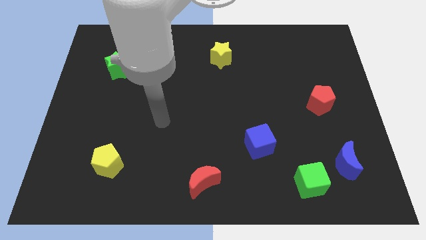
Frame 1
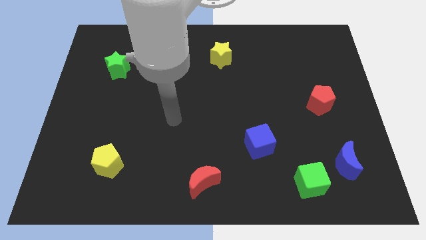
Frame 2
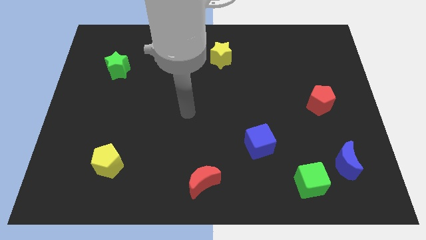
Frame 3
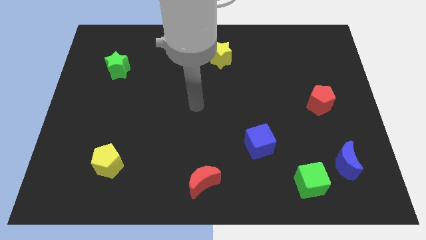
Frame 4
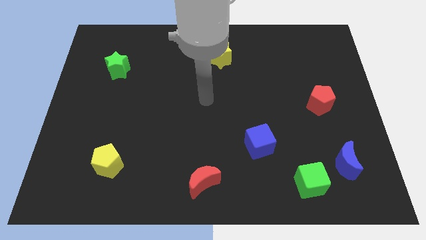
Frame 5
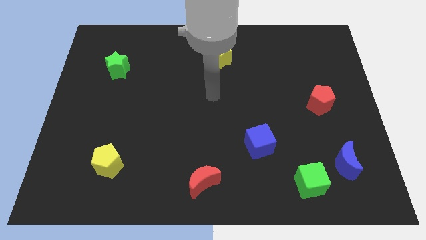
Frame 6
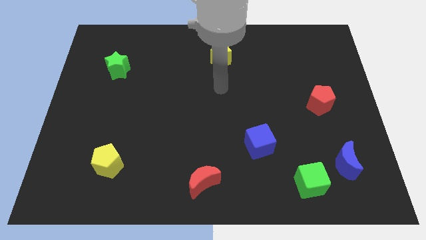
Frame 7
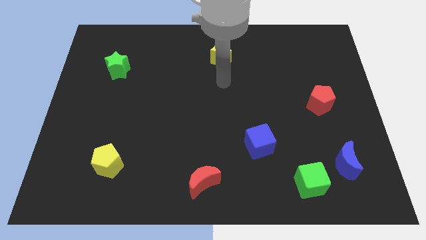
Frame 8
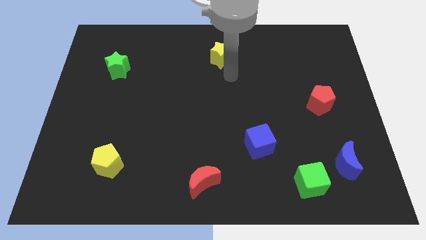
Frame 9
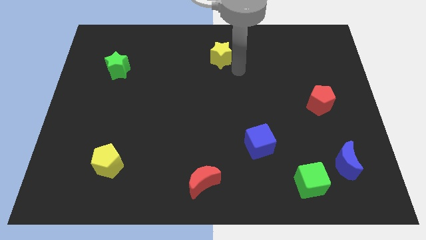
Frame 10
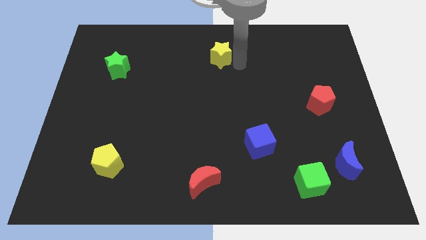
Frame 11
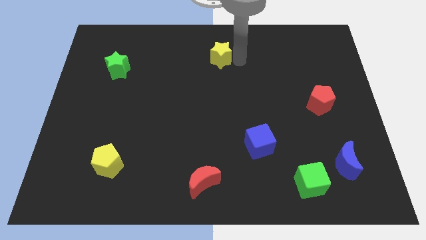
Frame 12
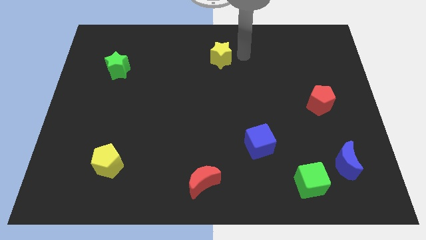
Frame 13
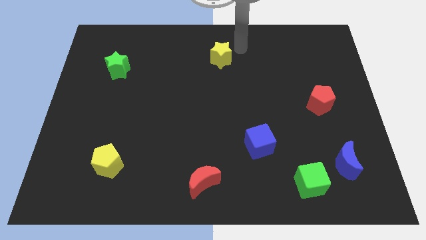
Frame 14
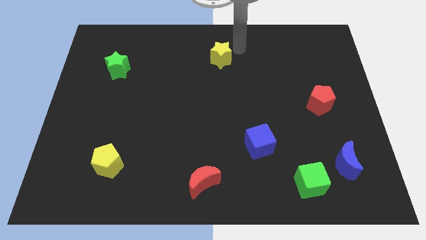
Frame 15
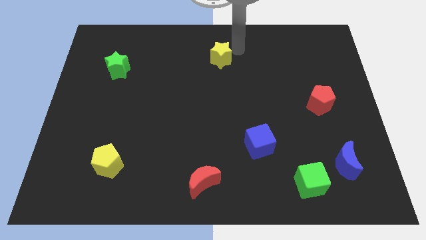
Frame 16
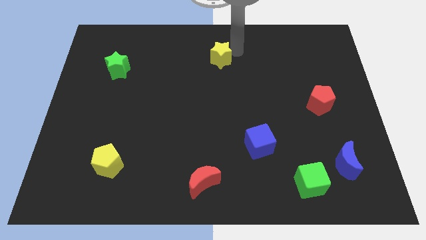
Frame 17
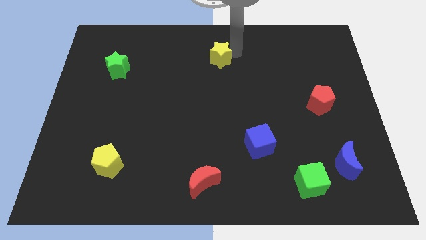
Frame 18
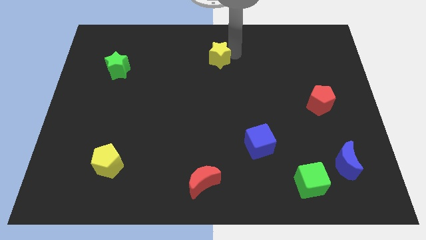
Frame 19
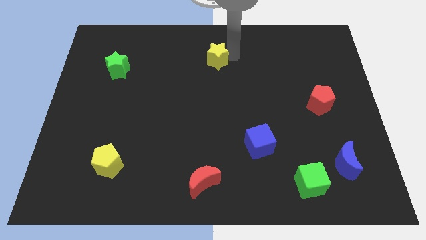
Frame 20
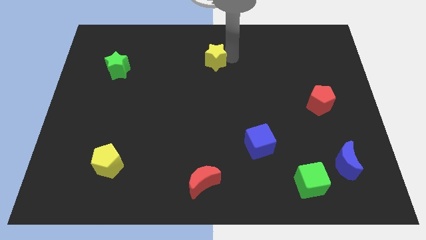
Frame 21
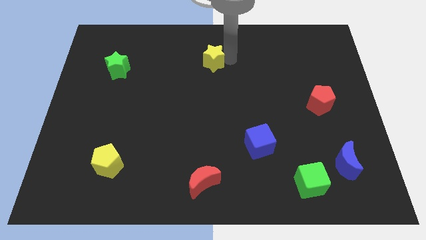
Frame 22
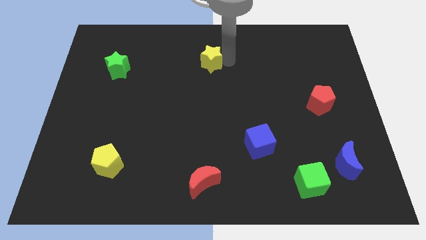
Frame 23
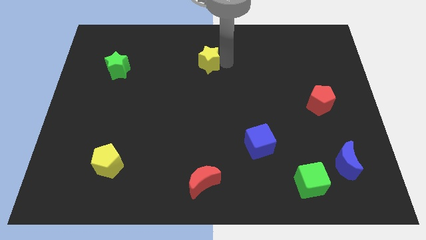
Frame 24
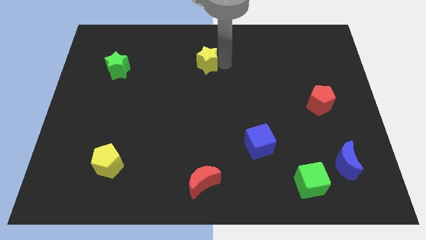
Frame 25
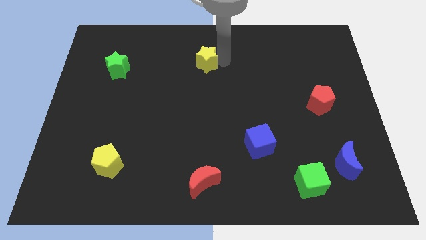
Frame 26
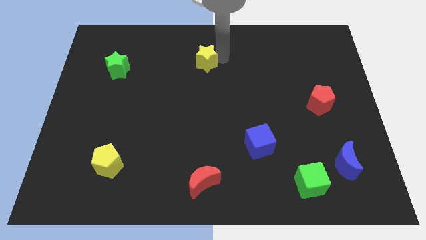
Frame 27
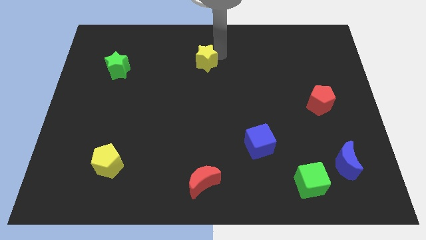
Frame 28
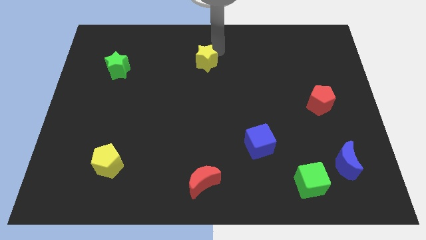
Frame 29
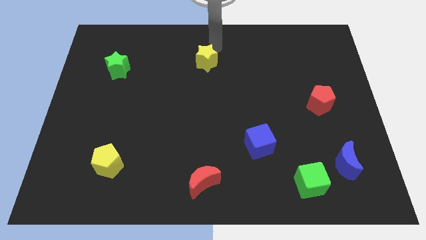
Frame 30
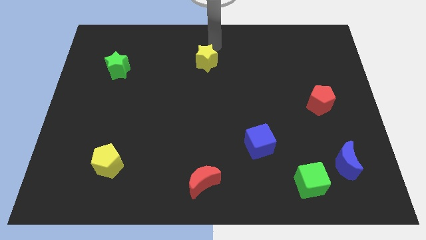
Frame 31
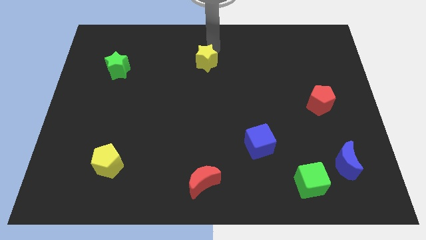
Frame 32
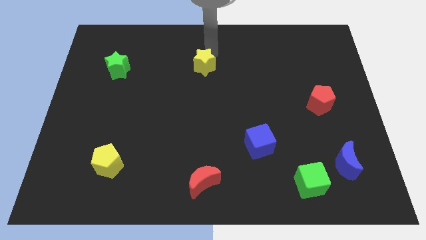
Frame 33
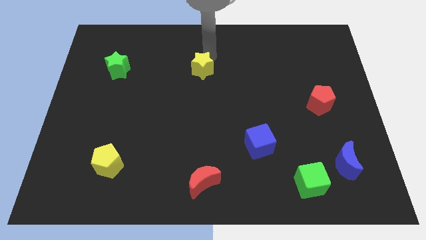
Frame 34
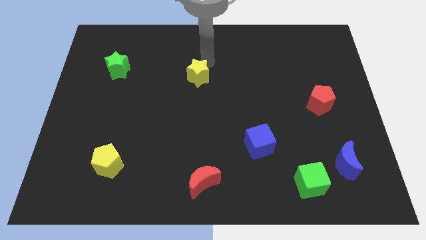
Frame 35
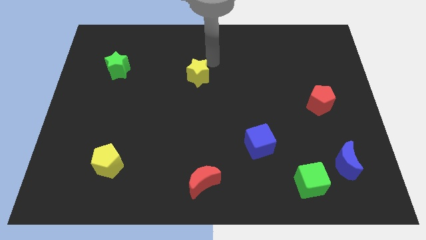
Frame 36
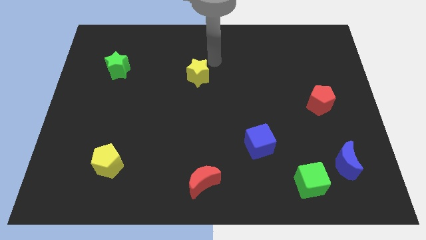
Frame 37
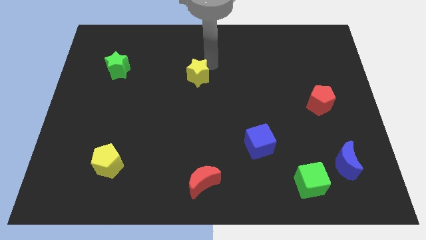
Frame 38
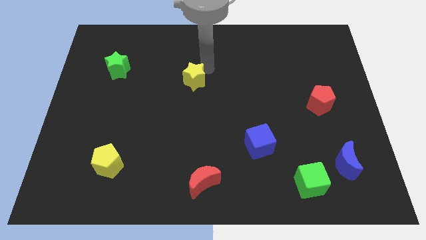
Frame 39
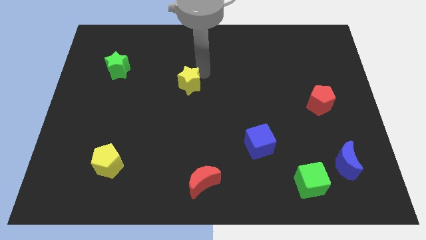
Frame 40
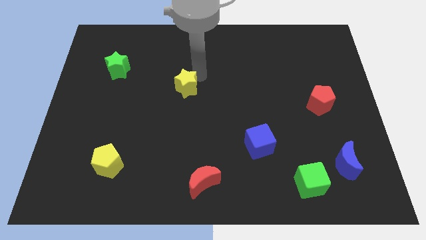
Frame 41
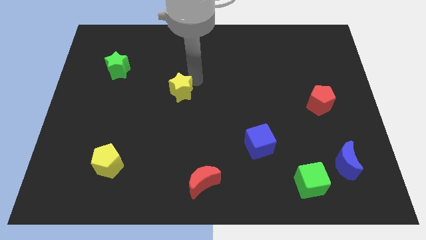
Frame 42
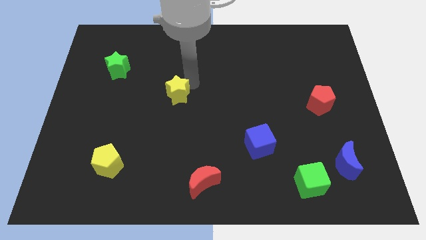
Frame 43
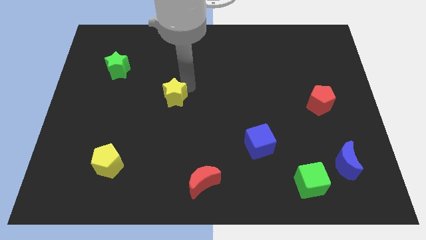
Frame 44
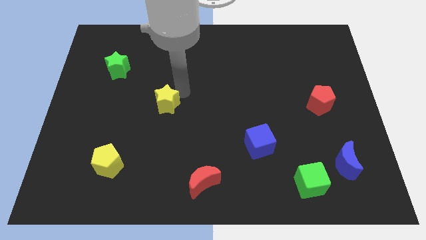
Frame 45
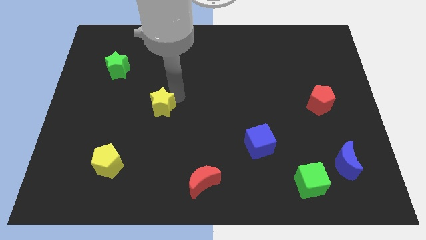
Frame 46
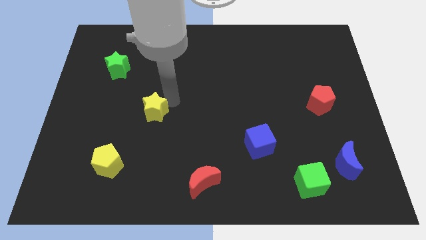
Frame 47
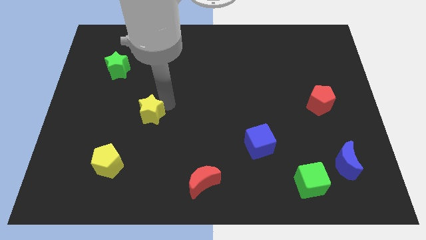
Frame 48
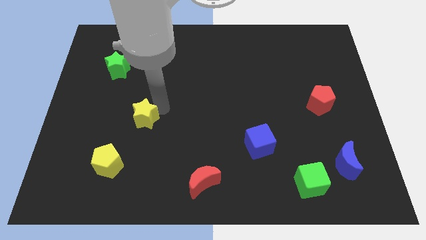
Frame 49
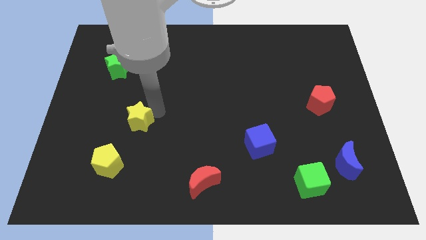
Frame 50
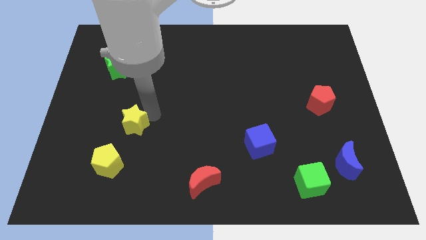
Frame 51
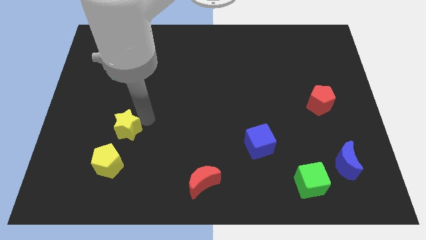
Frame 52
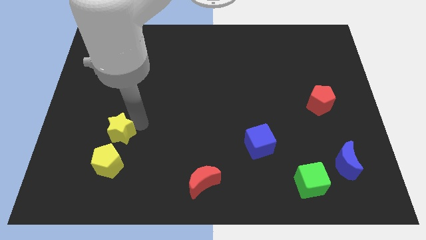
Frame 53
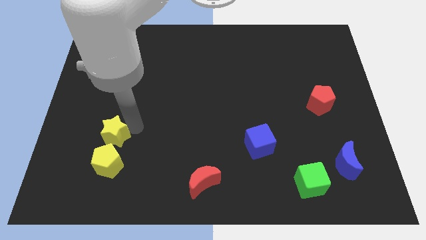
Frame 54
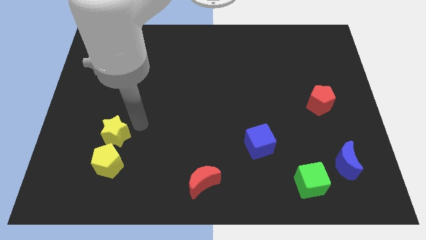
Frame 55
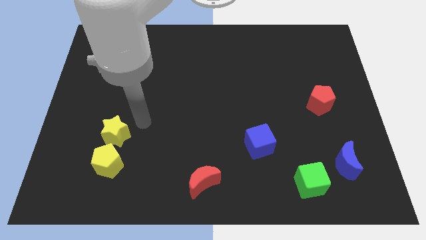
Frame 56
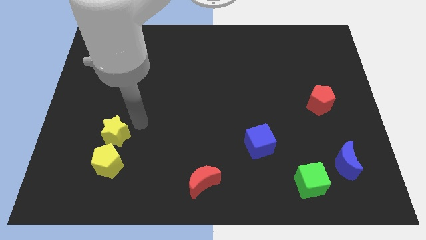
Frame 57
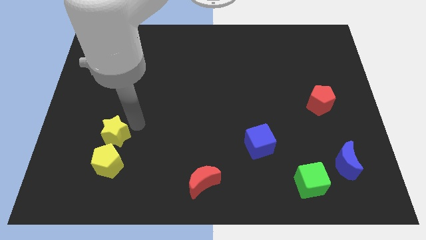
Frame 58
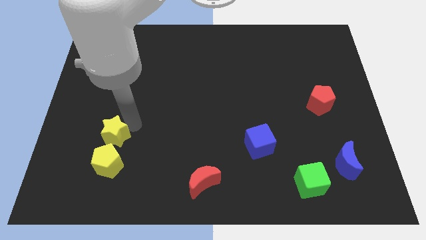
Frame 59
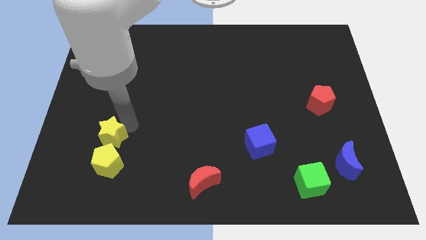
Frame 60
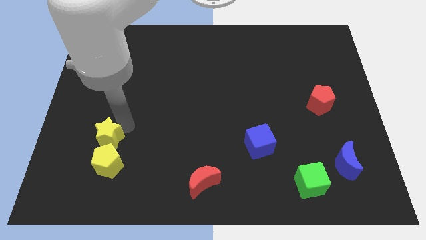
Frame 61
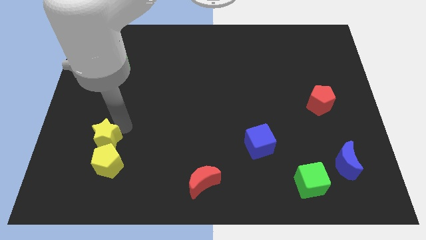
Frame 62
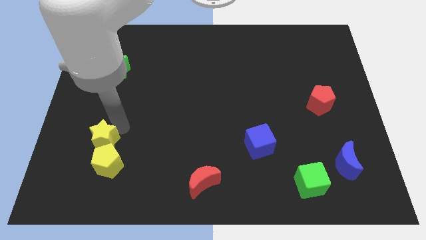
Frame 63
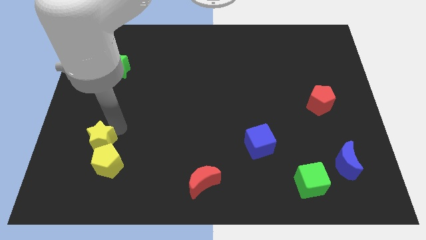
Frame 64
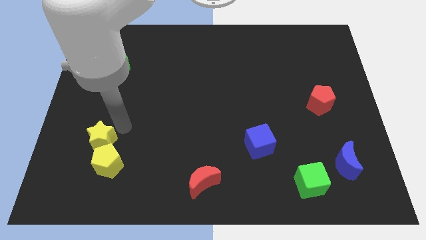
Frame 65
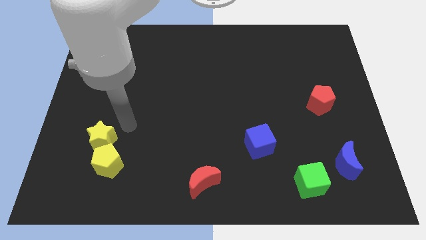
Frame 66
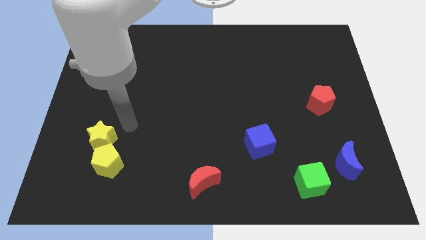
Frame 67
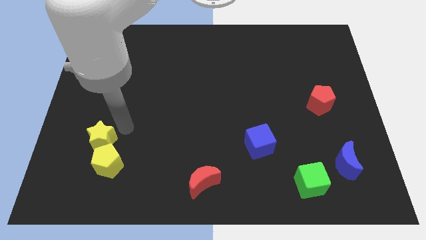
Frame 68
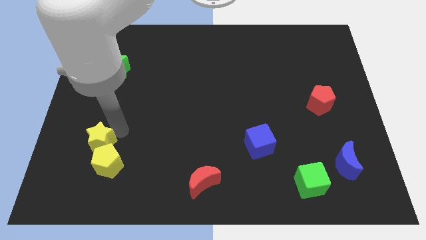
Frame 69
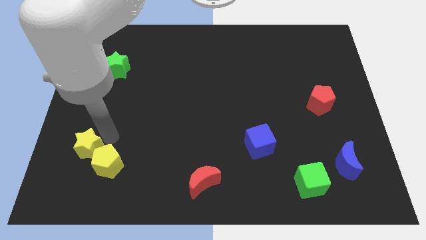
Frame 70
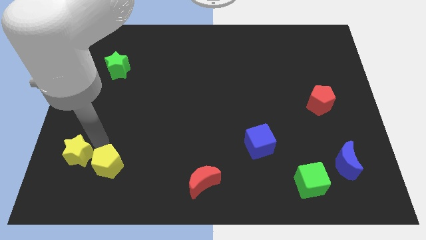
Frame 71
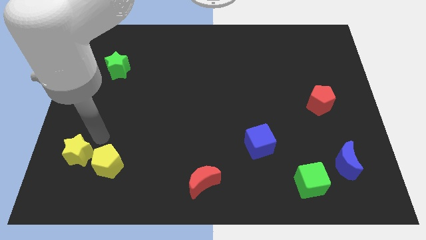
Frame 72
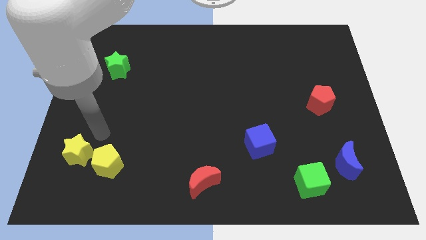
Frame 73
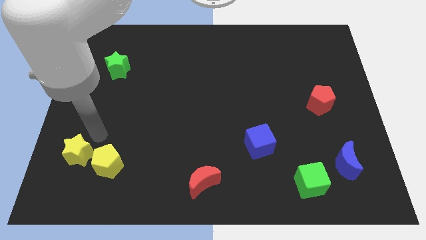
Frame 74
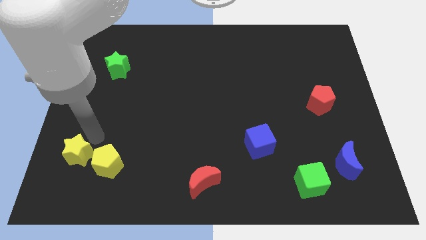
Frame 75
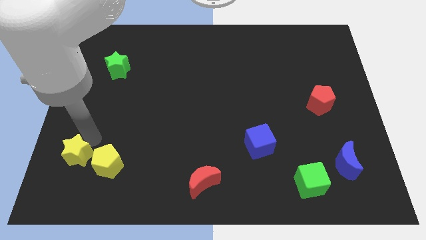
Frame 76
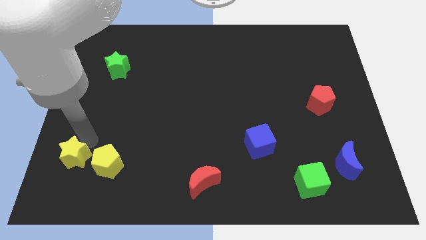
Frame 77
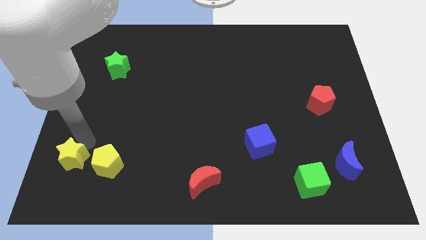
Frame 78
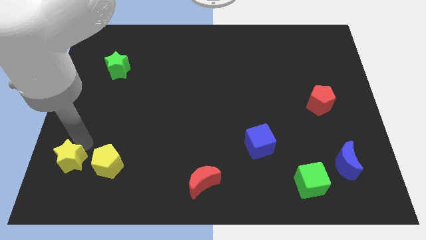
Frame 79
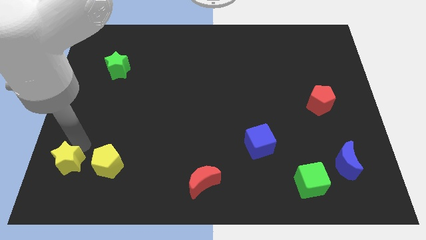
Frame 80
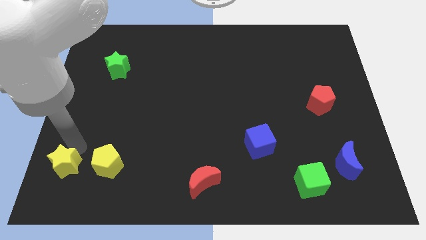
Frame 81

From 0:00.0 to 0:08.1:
move the yellow star to the bottom left
